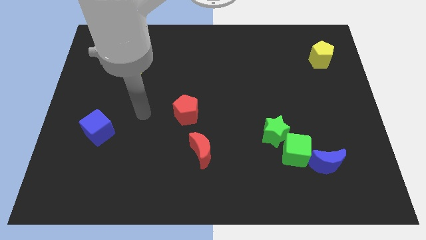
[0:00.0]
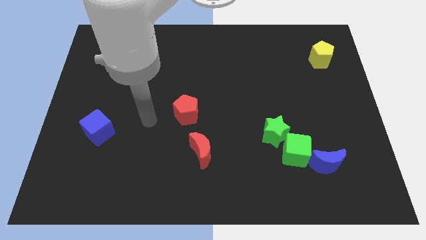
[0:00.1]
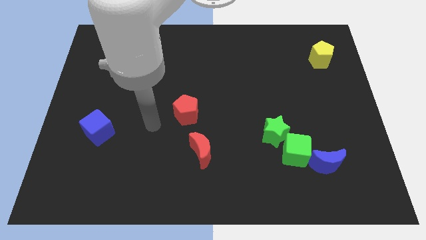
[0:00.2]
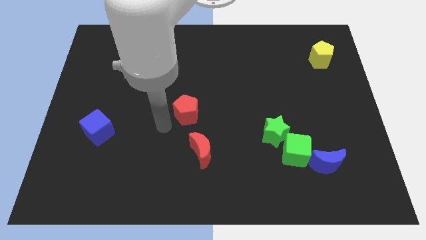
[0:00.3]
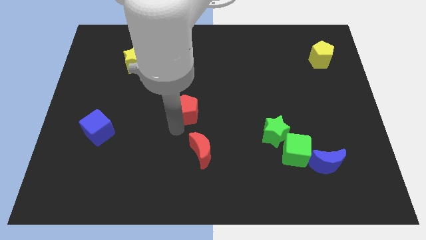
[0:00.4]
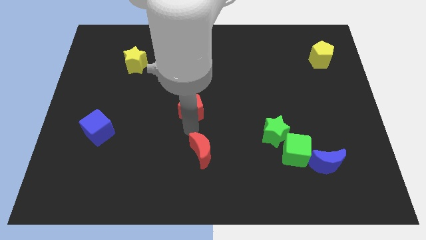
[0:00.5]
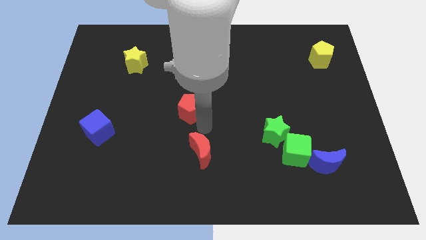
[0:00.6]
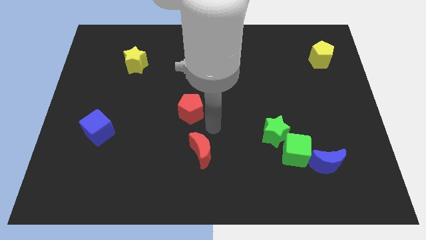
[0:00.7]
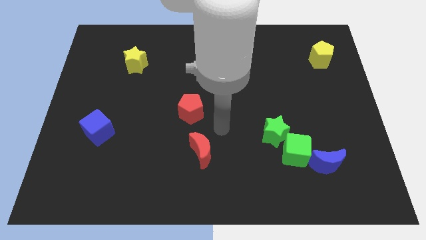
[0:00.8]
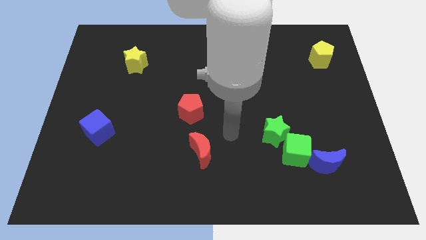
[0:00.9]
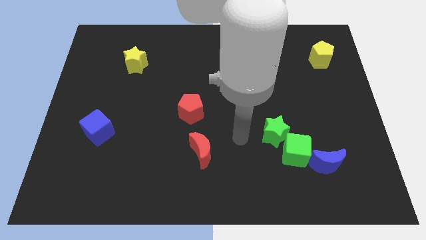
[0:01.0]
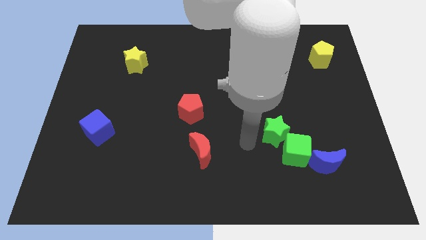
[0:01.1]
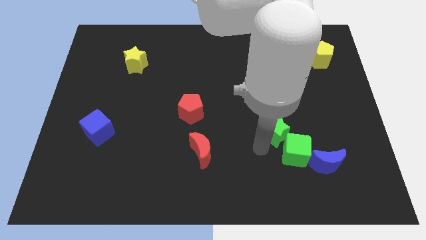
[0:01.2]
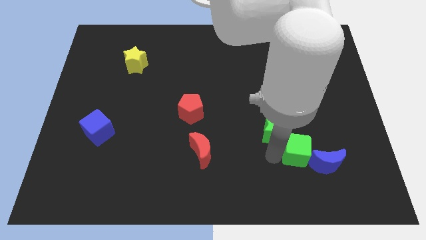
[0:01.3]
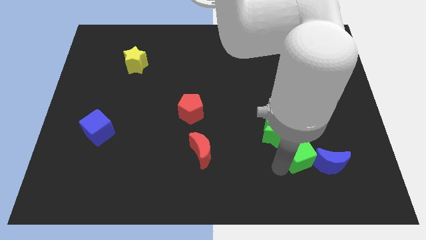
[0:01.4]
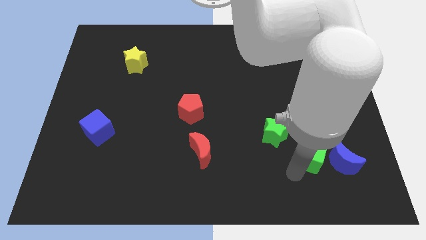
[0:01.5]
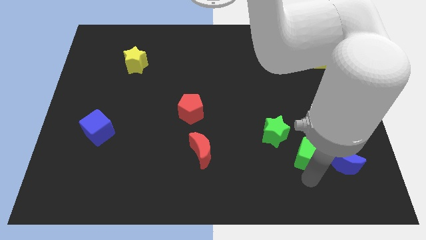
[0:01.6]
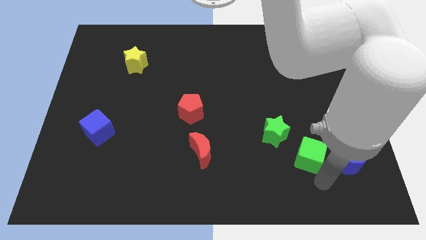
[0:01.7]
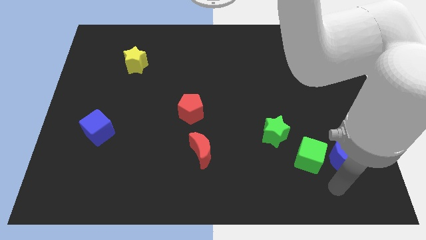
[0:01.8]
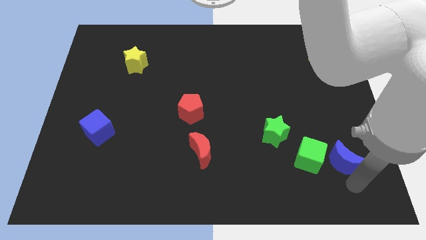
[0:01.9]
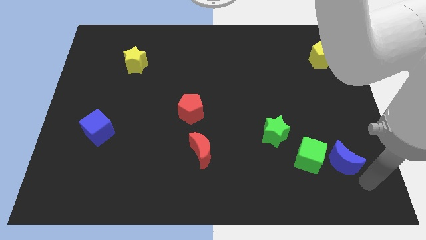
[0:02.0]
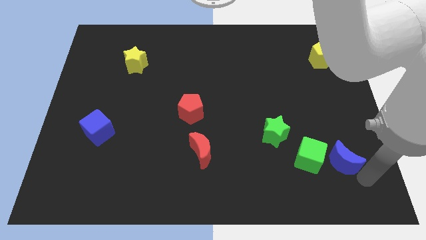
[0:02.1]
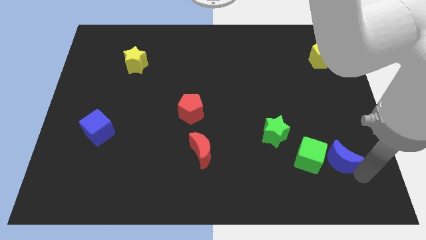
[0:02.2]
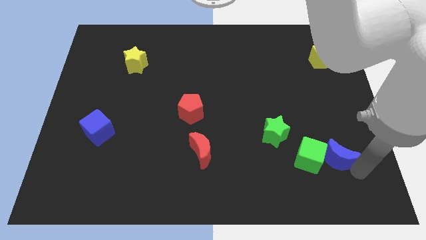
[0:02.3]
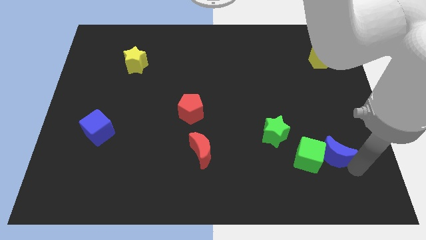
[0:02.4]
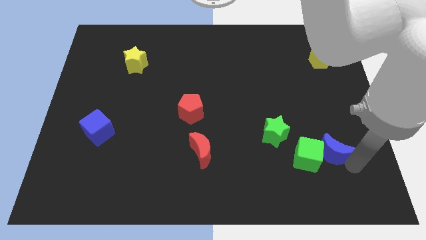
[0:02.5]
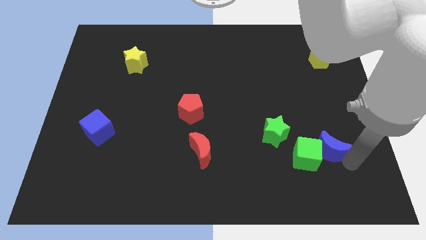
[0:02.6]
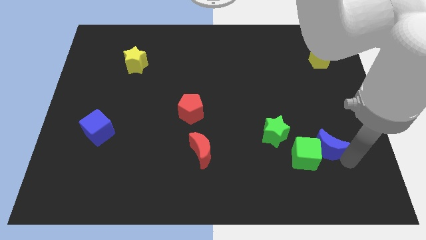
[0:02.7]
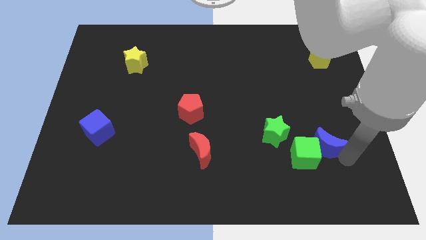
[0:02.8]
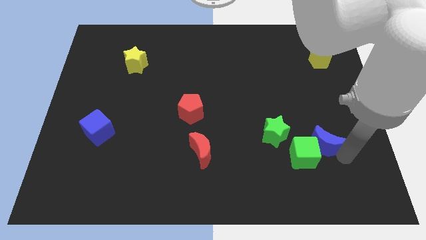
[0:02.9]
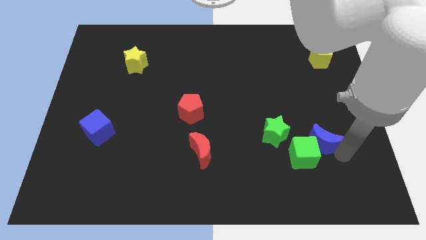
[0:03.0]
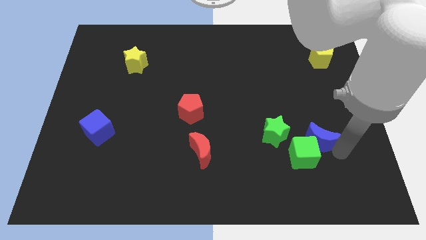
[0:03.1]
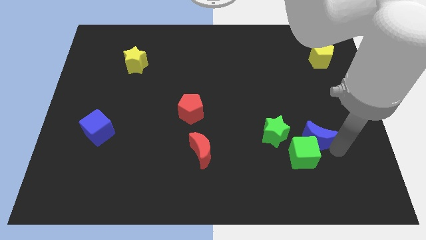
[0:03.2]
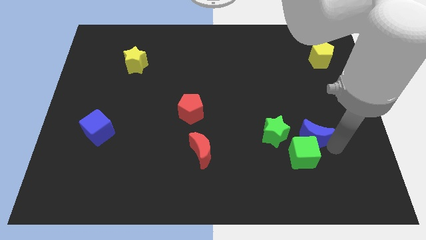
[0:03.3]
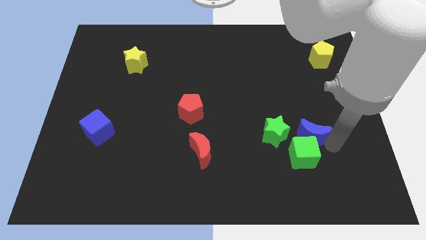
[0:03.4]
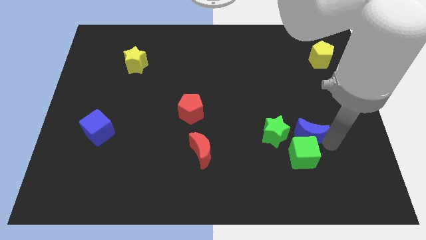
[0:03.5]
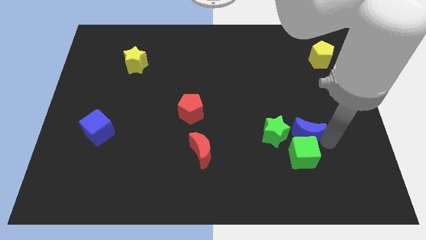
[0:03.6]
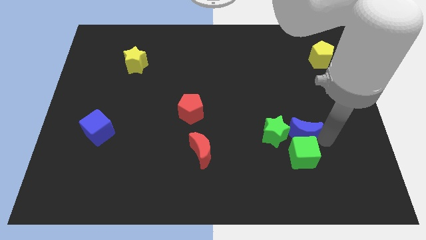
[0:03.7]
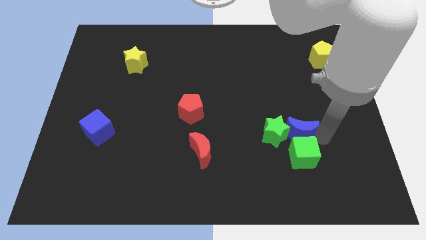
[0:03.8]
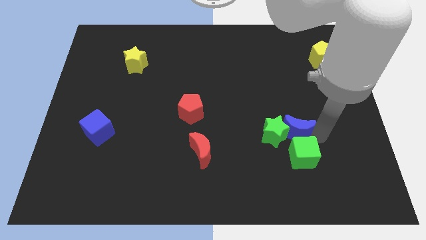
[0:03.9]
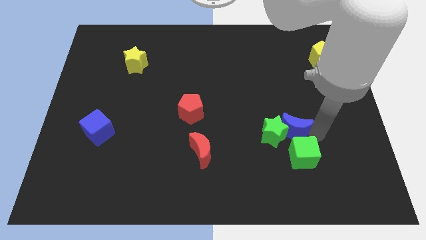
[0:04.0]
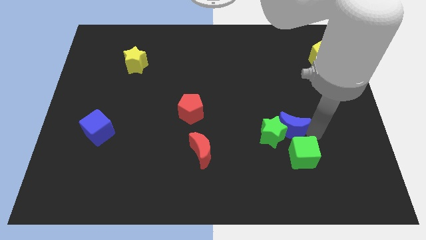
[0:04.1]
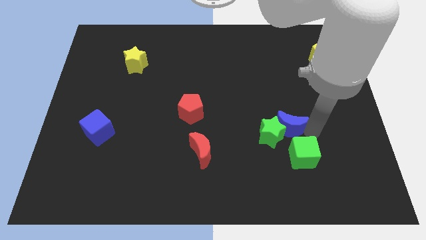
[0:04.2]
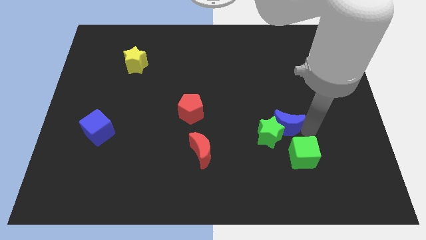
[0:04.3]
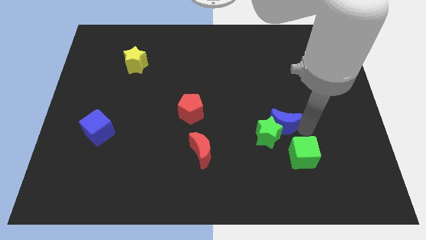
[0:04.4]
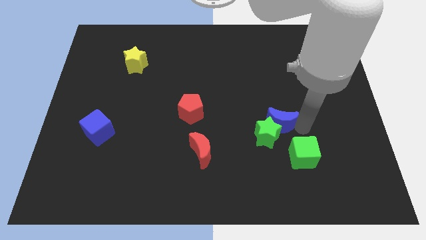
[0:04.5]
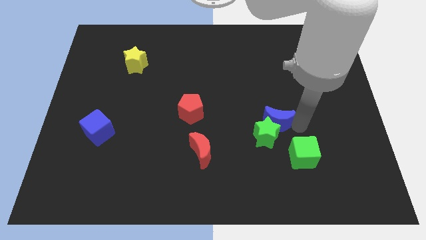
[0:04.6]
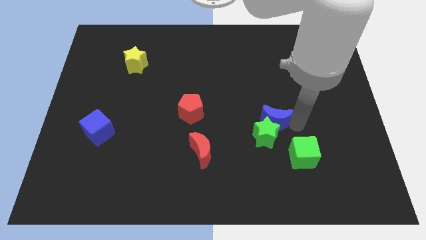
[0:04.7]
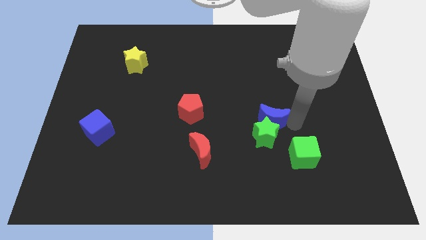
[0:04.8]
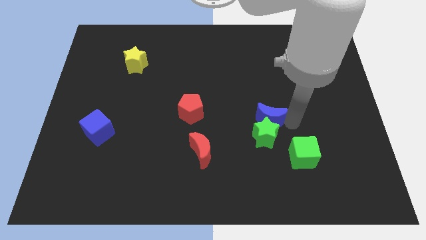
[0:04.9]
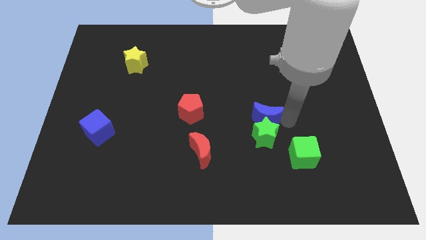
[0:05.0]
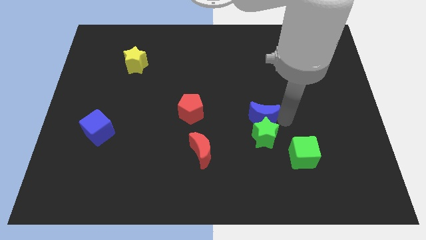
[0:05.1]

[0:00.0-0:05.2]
put the blue moon to the middle

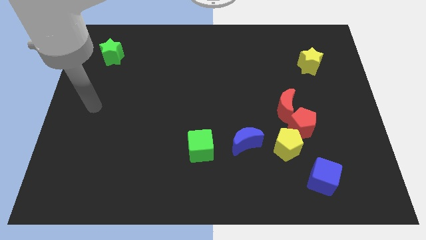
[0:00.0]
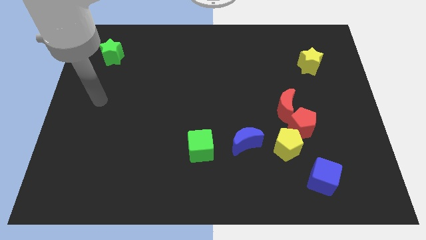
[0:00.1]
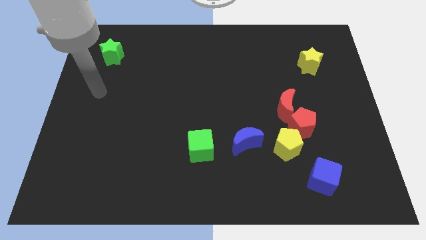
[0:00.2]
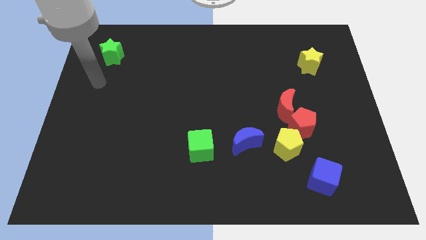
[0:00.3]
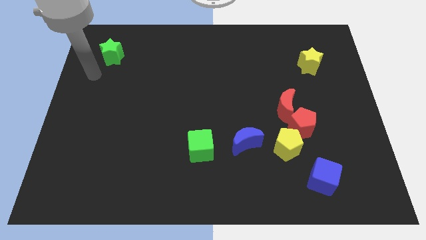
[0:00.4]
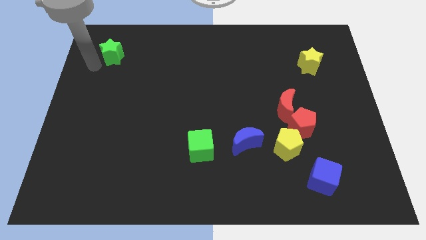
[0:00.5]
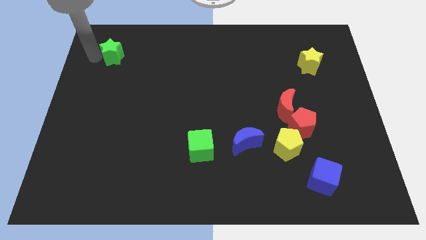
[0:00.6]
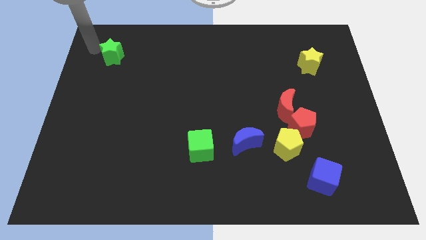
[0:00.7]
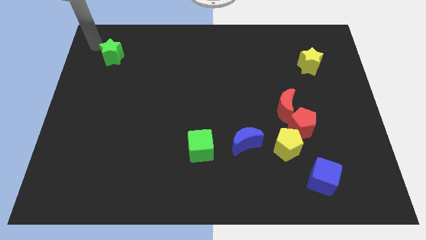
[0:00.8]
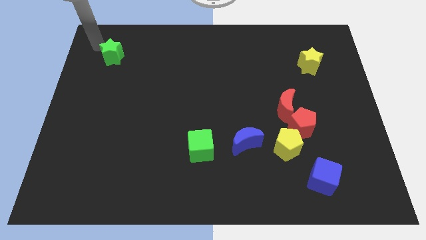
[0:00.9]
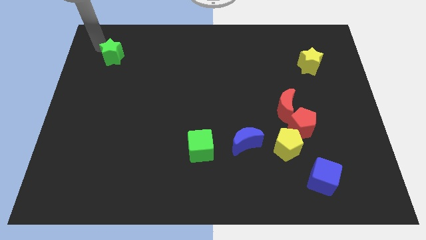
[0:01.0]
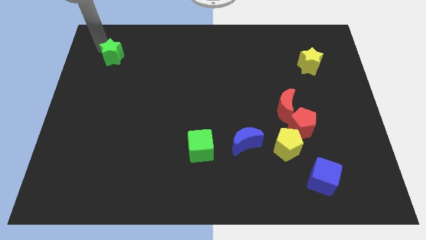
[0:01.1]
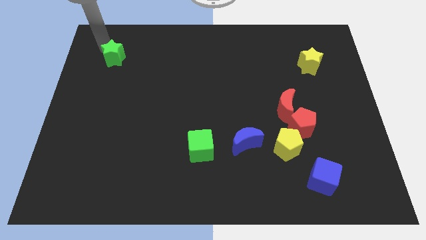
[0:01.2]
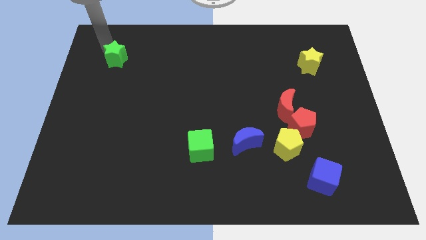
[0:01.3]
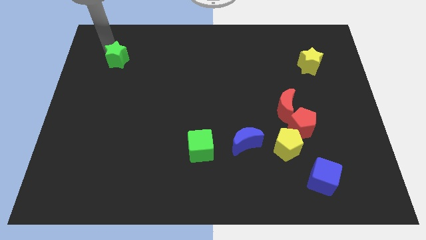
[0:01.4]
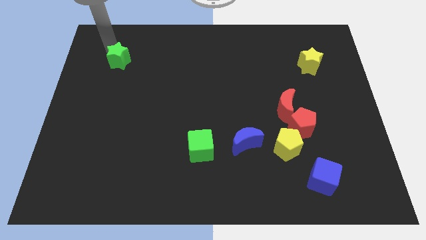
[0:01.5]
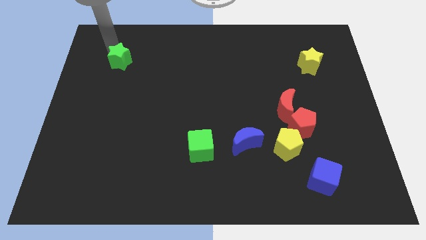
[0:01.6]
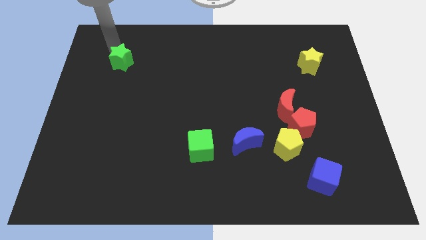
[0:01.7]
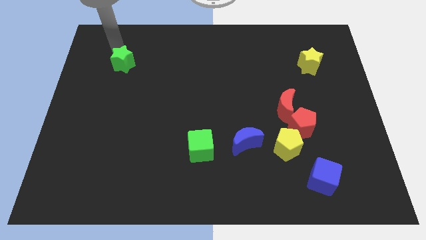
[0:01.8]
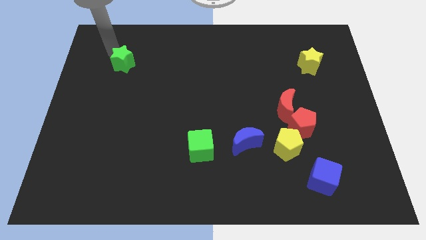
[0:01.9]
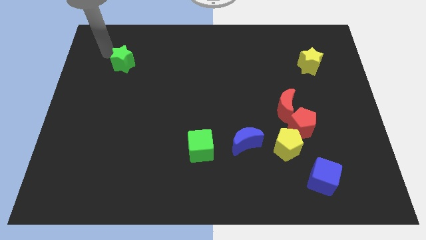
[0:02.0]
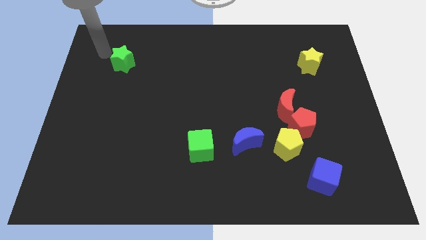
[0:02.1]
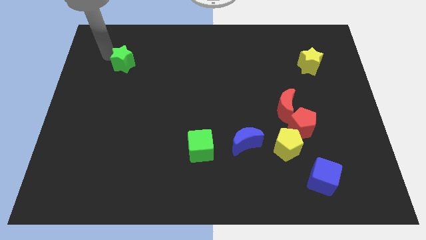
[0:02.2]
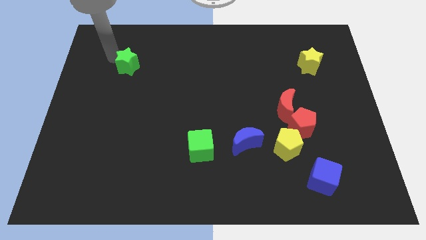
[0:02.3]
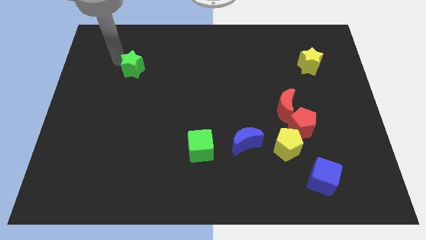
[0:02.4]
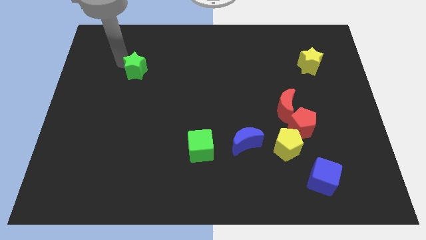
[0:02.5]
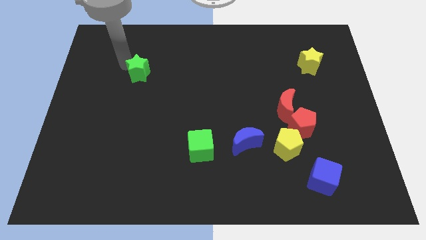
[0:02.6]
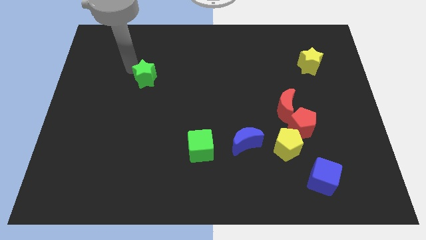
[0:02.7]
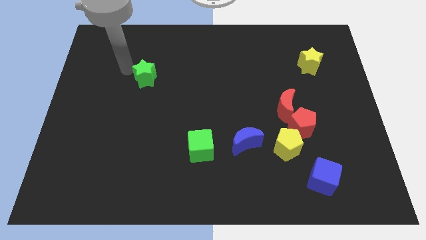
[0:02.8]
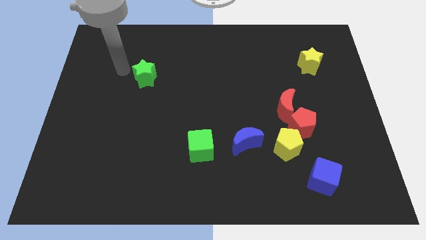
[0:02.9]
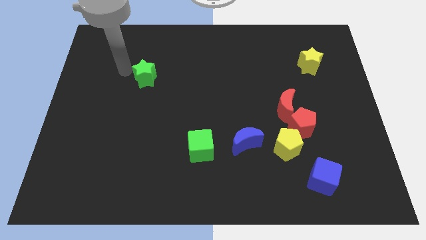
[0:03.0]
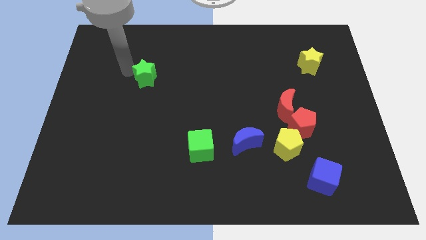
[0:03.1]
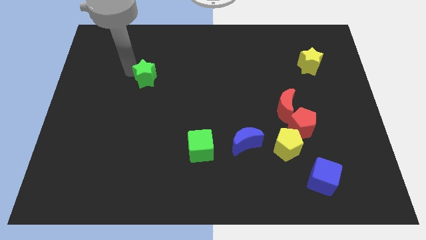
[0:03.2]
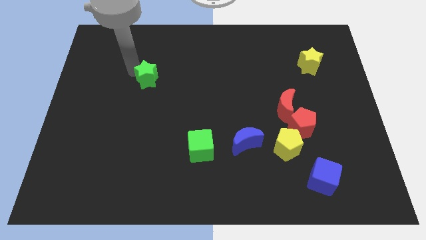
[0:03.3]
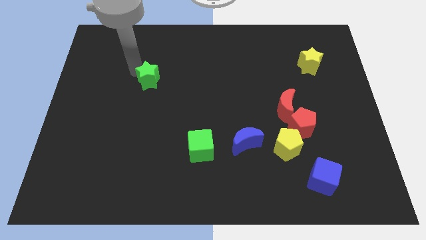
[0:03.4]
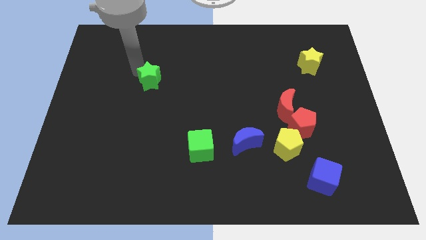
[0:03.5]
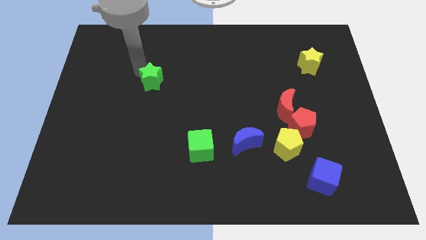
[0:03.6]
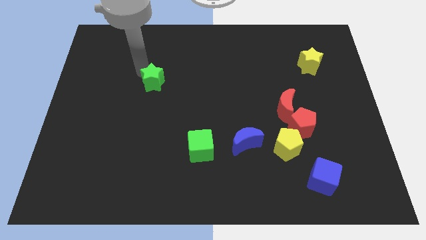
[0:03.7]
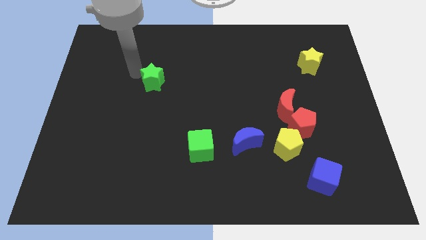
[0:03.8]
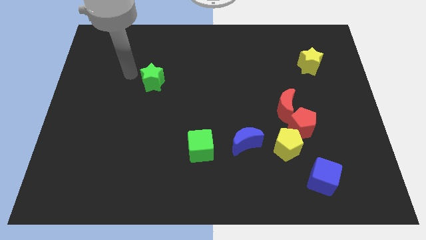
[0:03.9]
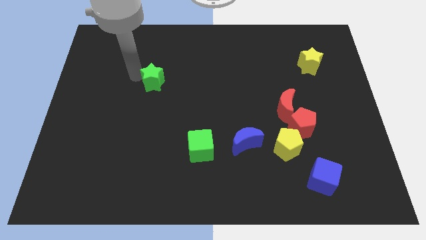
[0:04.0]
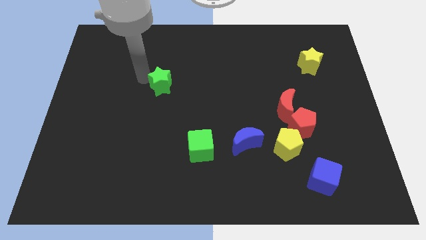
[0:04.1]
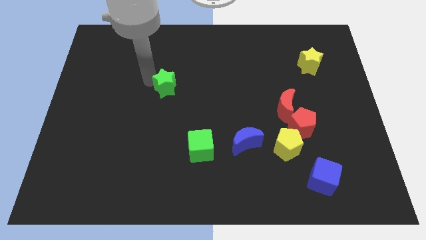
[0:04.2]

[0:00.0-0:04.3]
push the green star to the middle of the board
